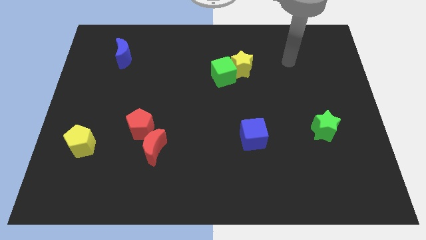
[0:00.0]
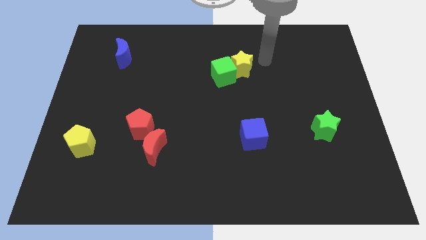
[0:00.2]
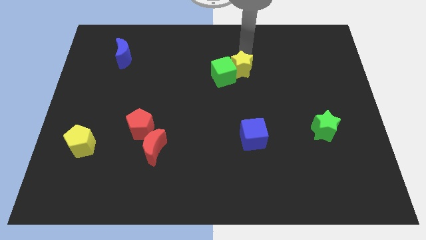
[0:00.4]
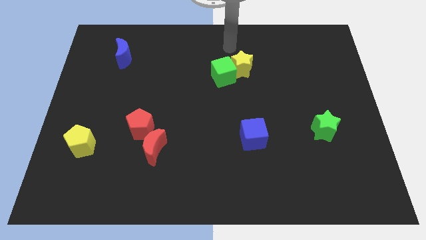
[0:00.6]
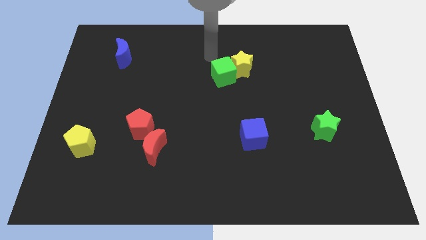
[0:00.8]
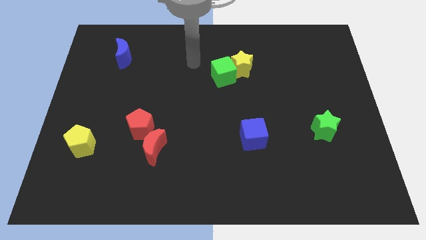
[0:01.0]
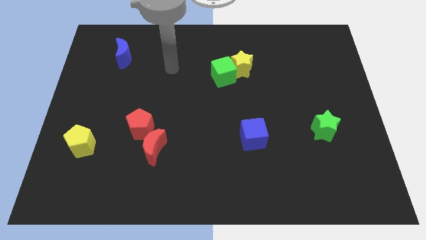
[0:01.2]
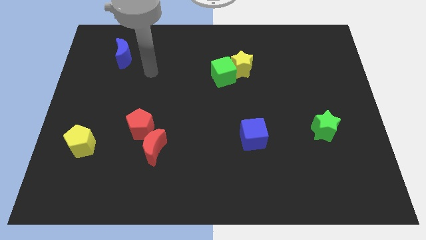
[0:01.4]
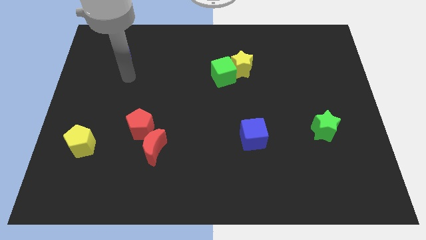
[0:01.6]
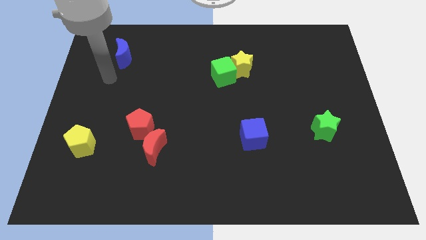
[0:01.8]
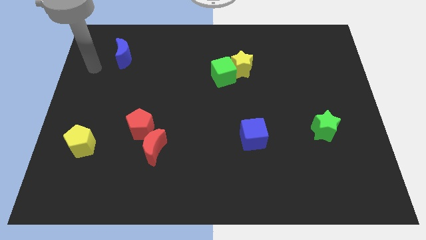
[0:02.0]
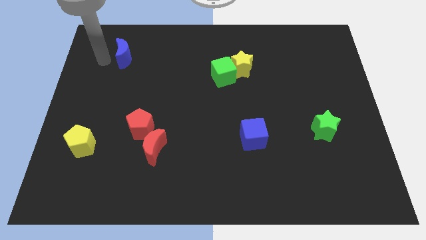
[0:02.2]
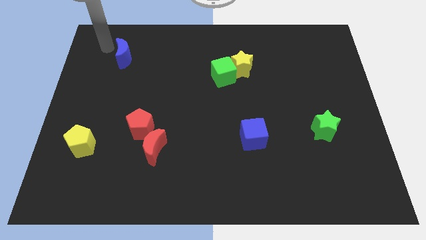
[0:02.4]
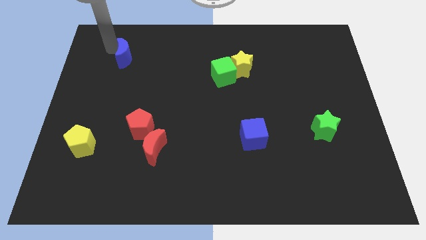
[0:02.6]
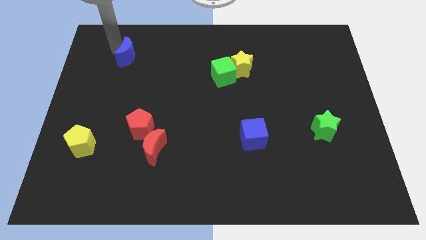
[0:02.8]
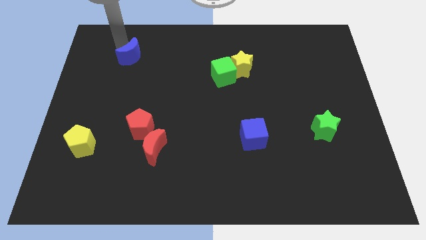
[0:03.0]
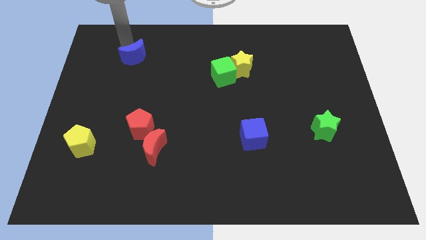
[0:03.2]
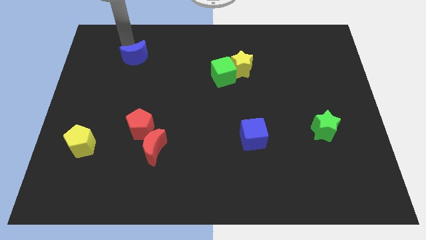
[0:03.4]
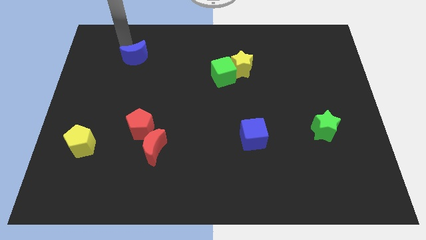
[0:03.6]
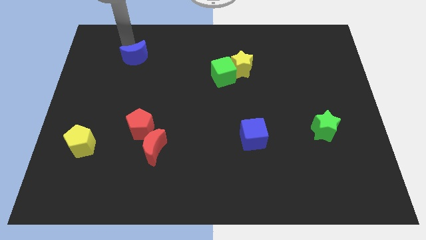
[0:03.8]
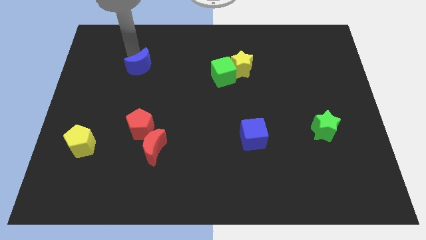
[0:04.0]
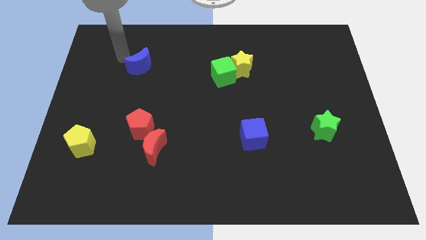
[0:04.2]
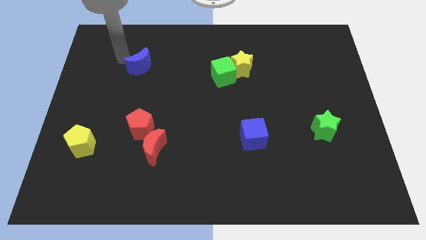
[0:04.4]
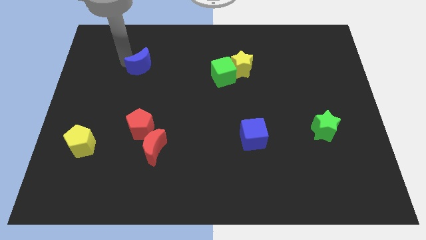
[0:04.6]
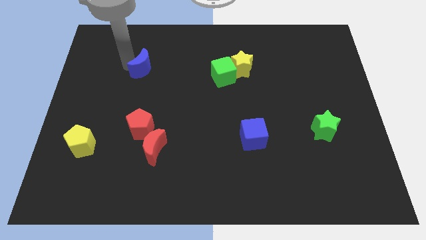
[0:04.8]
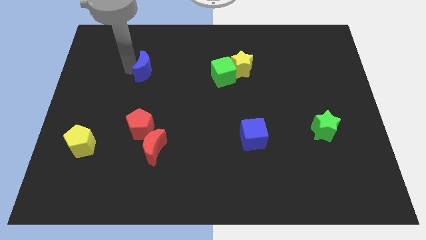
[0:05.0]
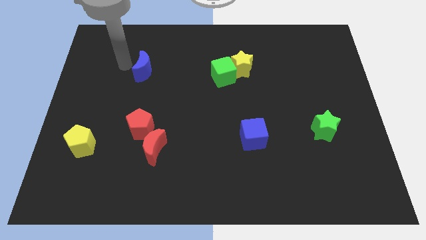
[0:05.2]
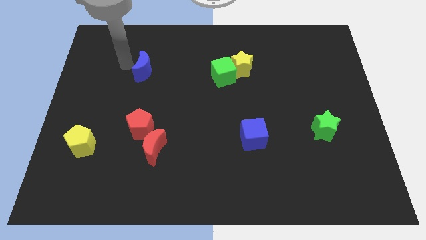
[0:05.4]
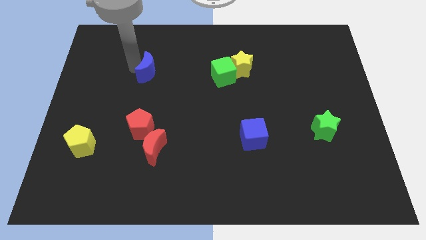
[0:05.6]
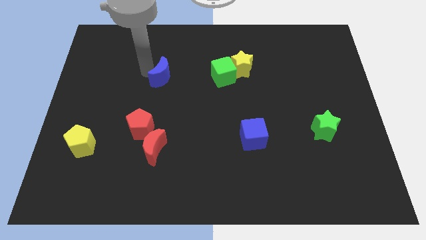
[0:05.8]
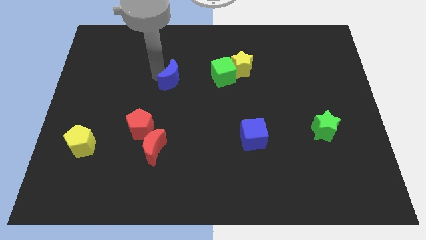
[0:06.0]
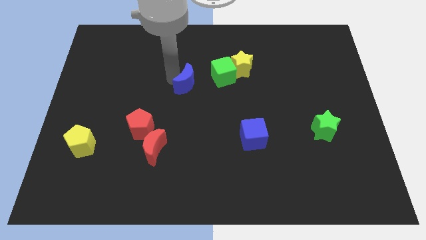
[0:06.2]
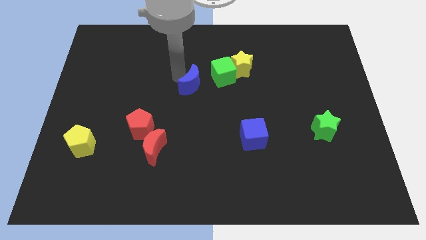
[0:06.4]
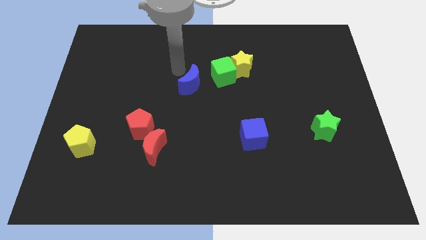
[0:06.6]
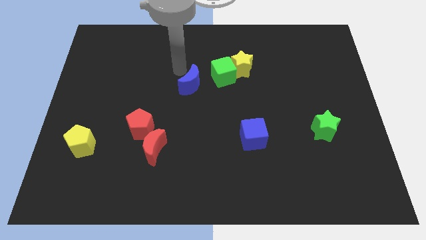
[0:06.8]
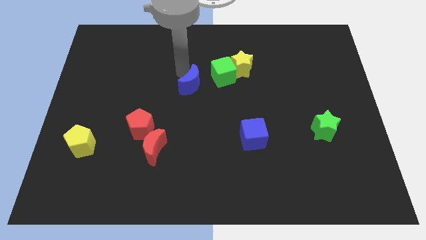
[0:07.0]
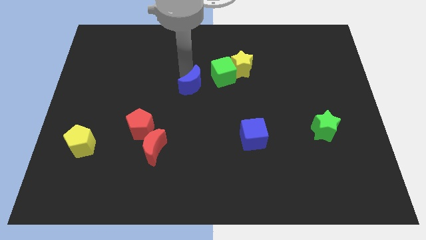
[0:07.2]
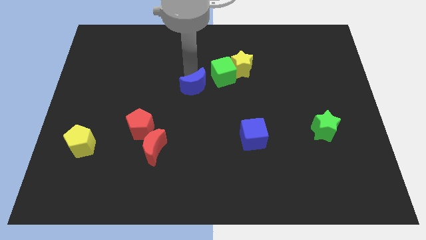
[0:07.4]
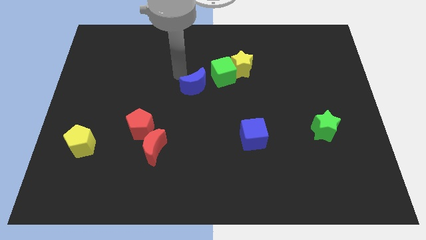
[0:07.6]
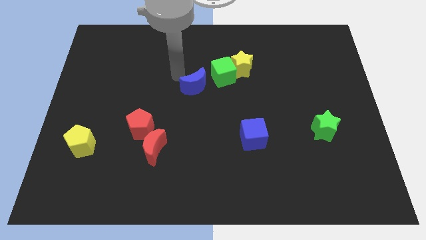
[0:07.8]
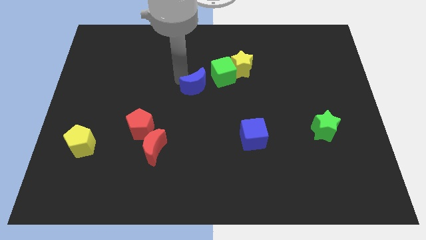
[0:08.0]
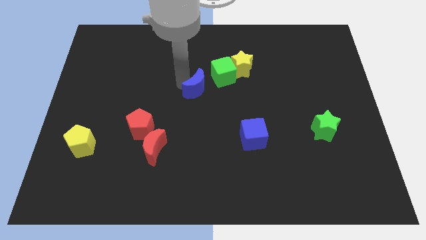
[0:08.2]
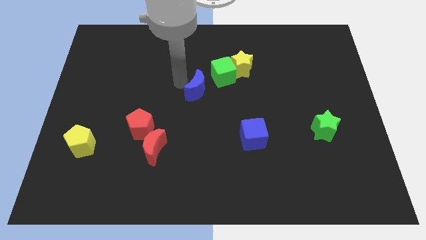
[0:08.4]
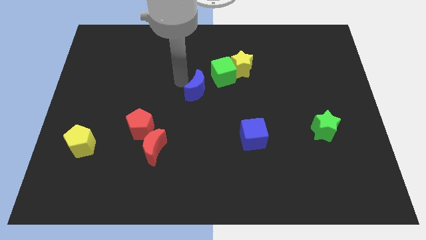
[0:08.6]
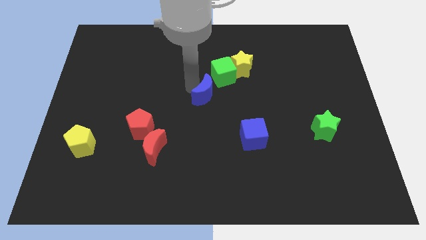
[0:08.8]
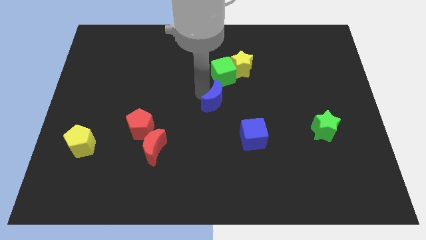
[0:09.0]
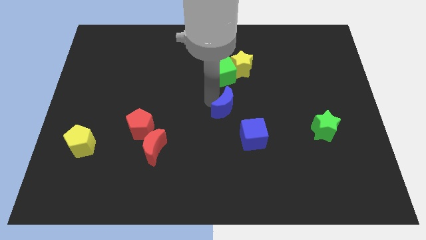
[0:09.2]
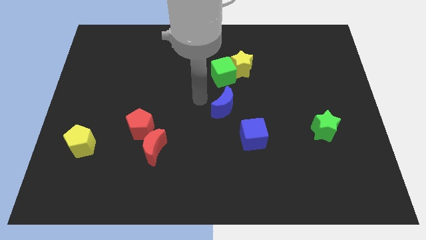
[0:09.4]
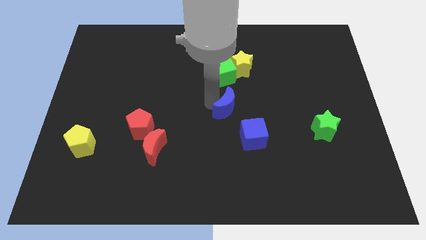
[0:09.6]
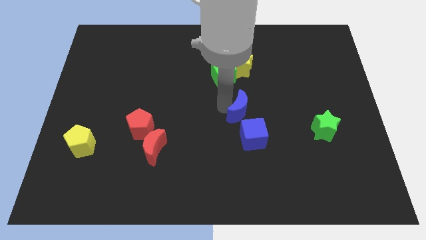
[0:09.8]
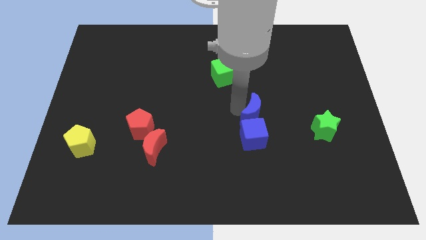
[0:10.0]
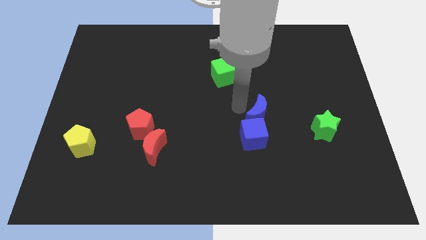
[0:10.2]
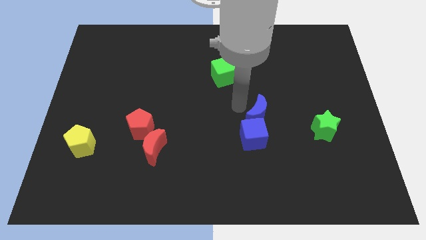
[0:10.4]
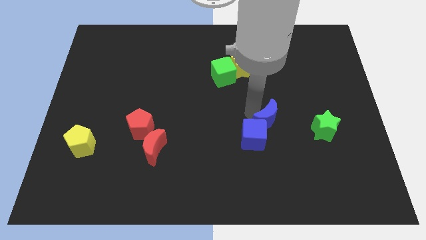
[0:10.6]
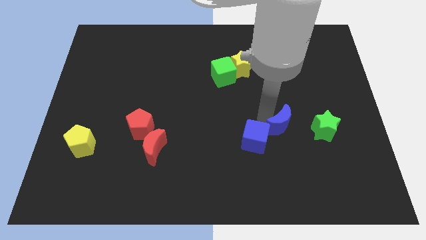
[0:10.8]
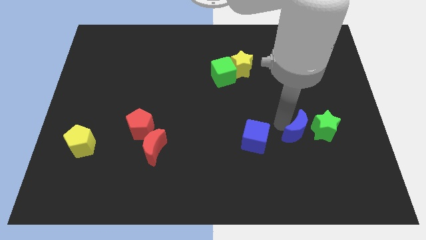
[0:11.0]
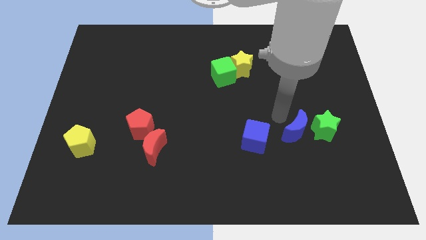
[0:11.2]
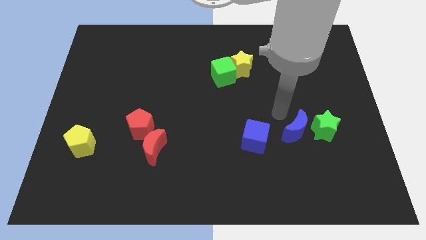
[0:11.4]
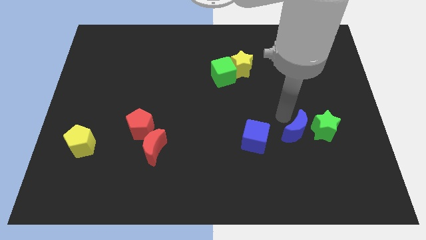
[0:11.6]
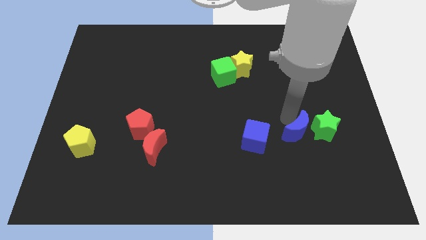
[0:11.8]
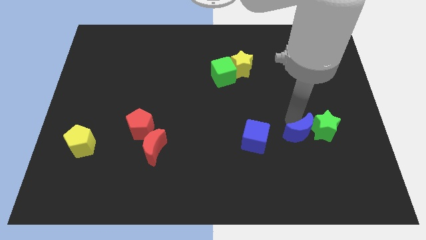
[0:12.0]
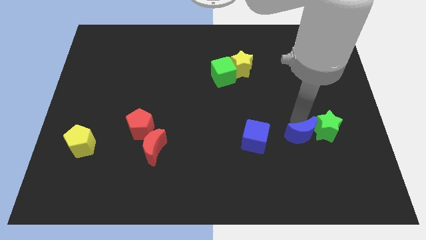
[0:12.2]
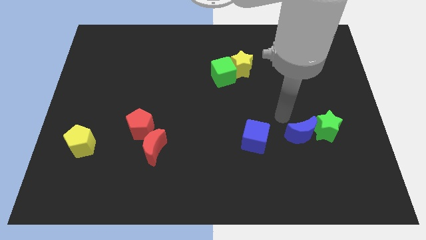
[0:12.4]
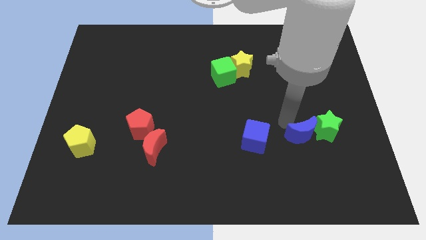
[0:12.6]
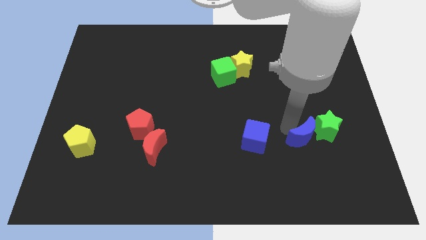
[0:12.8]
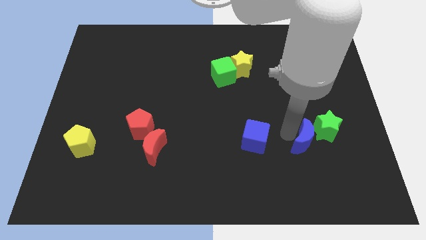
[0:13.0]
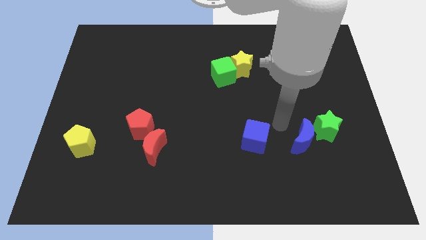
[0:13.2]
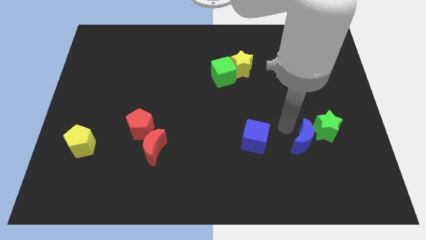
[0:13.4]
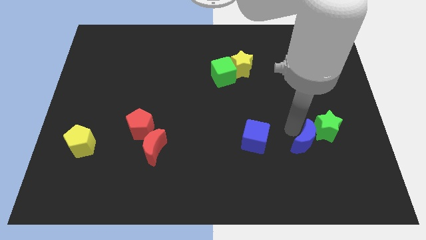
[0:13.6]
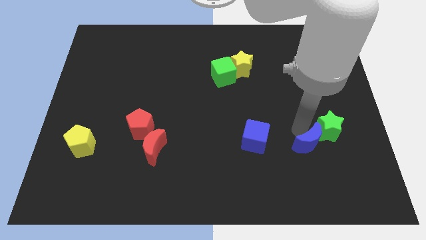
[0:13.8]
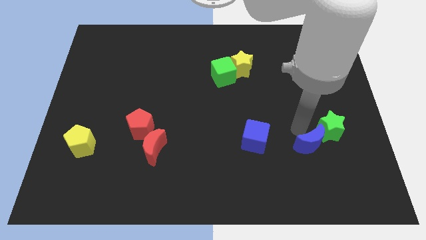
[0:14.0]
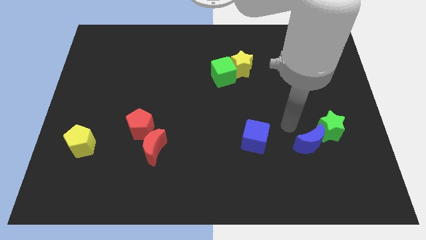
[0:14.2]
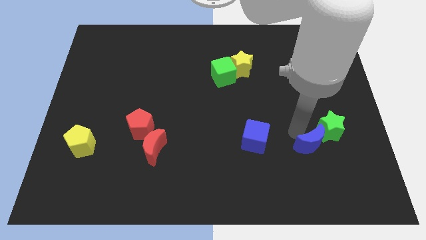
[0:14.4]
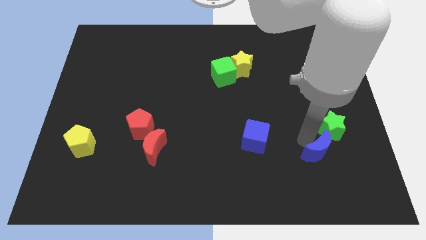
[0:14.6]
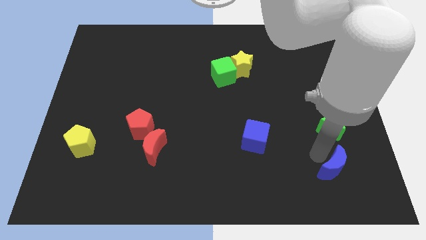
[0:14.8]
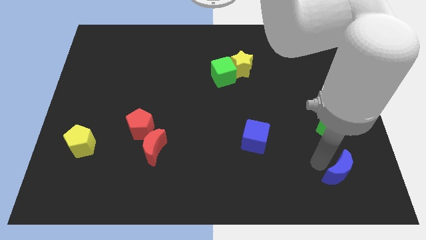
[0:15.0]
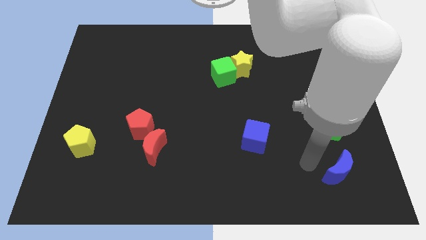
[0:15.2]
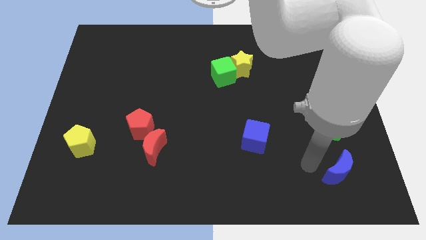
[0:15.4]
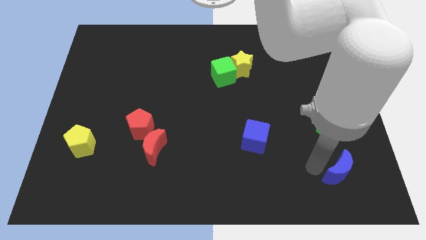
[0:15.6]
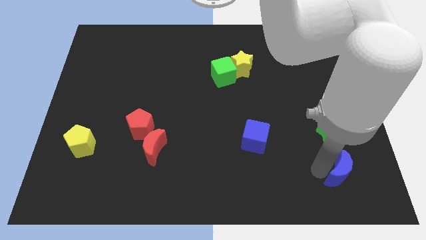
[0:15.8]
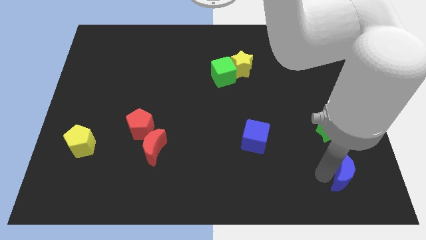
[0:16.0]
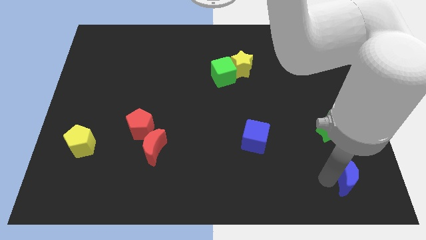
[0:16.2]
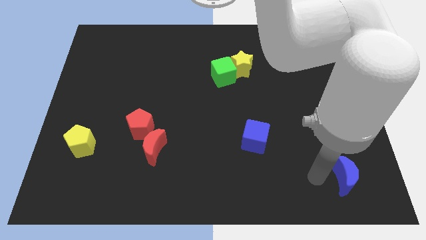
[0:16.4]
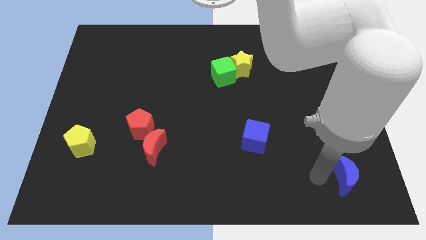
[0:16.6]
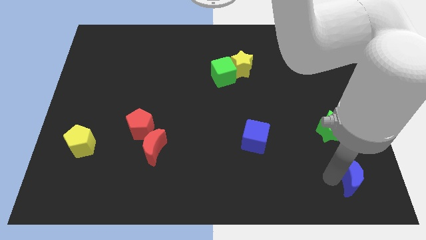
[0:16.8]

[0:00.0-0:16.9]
move the blue moon to the lower right corner
